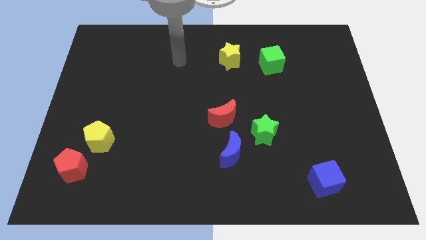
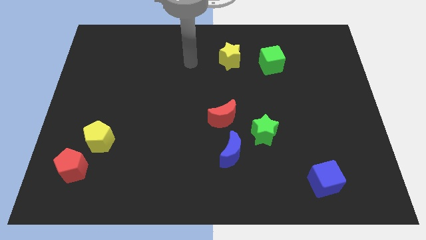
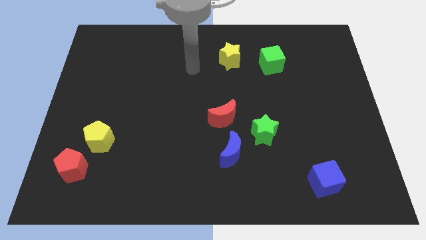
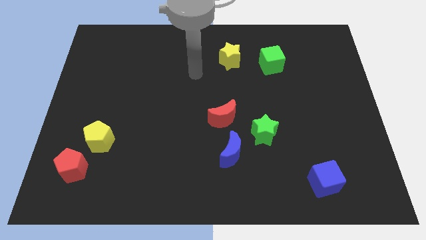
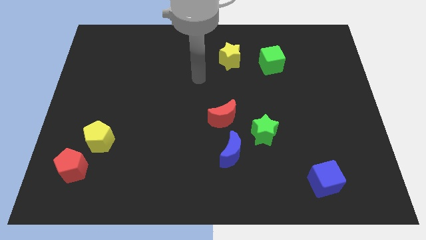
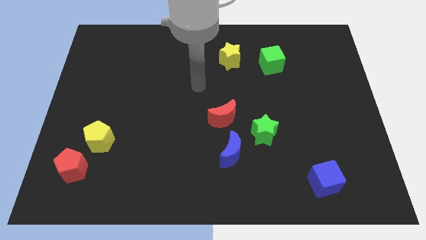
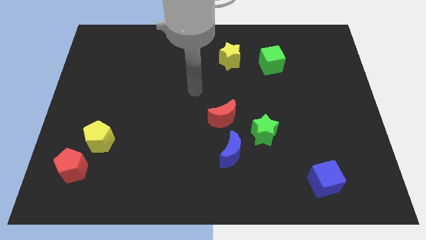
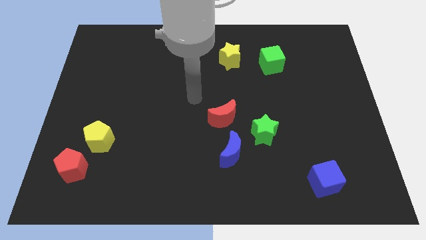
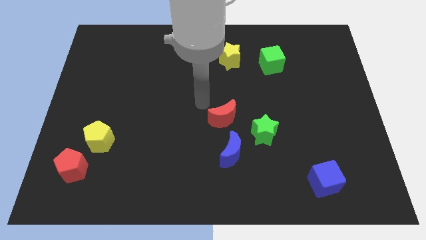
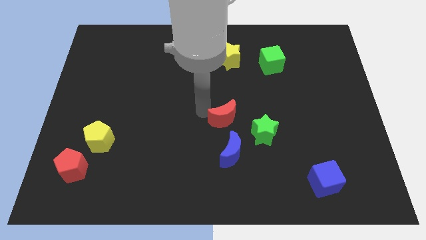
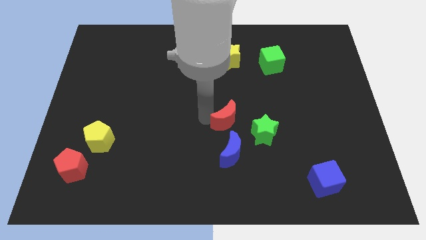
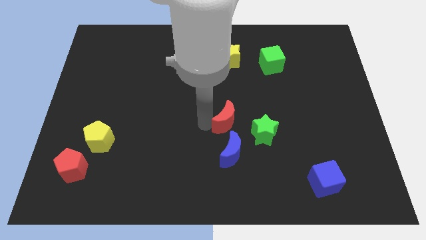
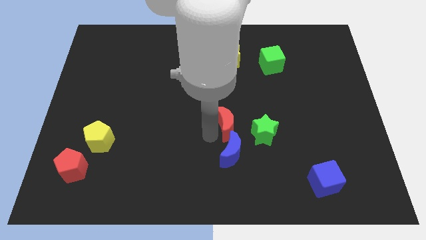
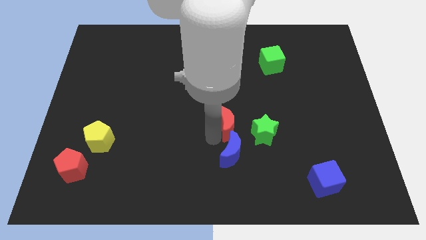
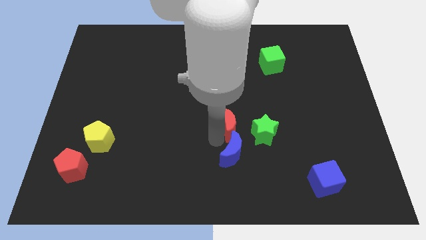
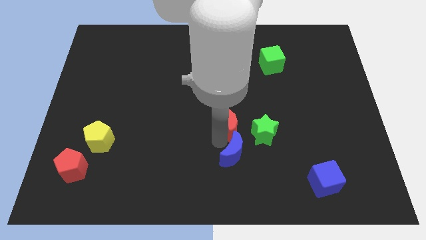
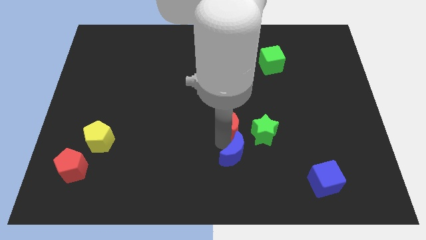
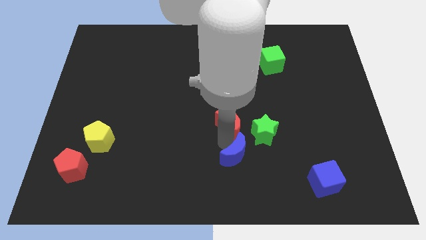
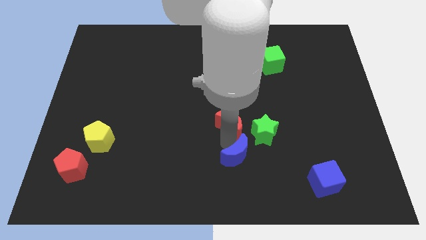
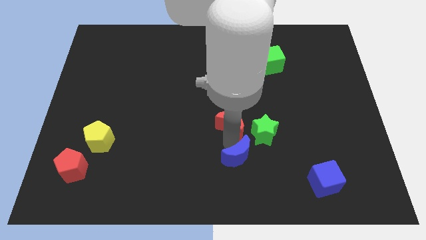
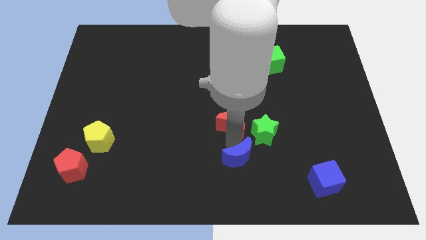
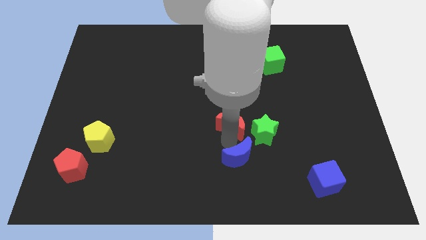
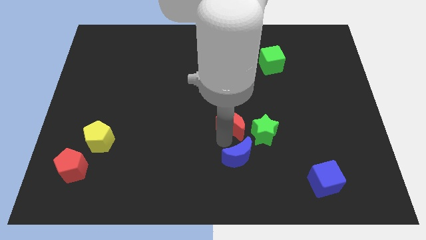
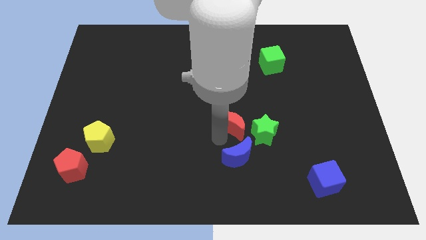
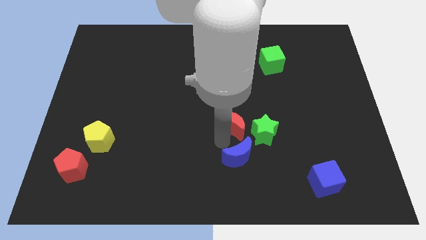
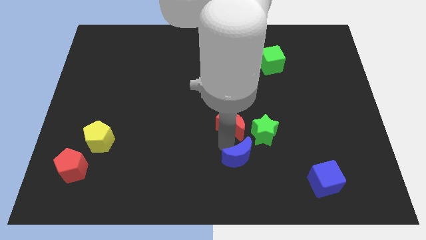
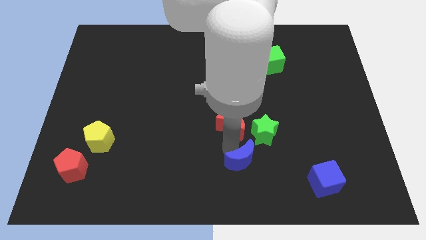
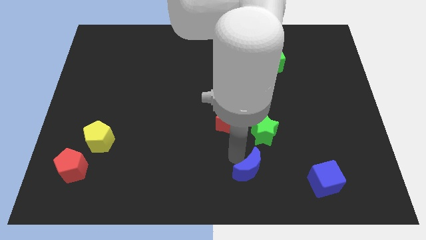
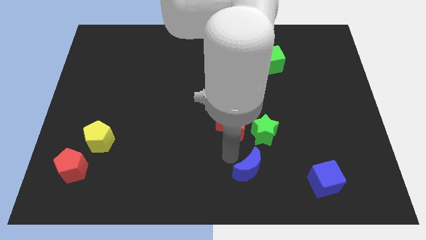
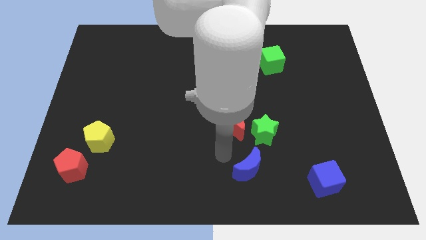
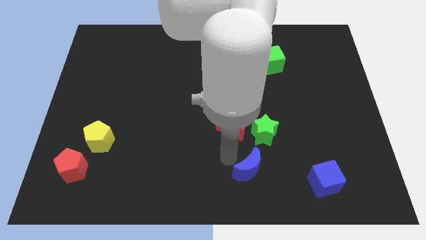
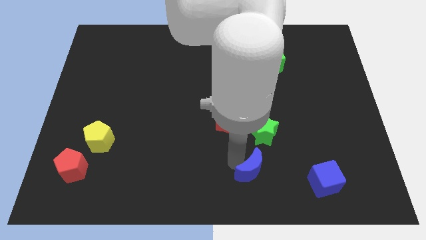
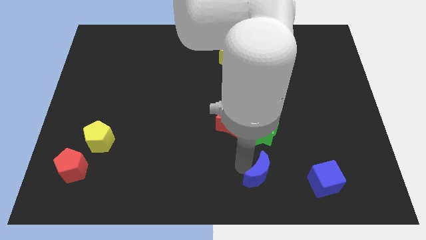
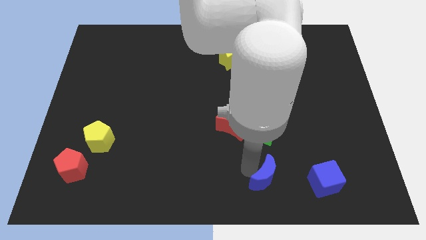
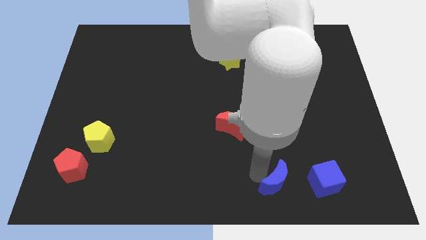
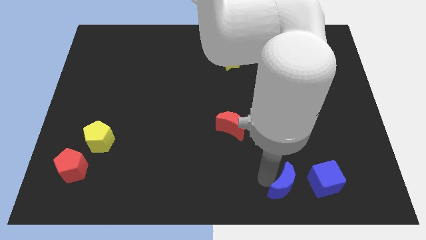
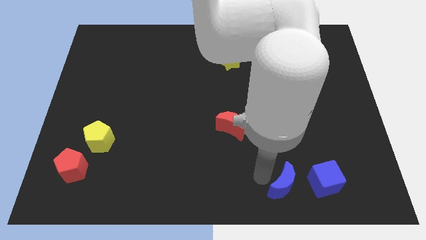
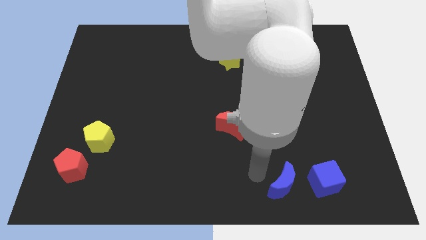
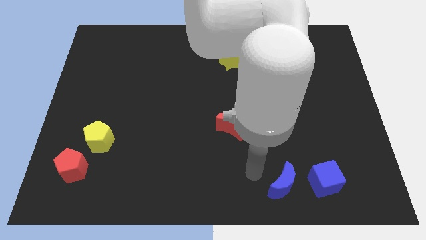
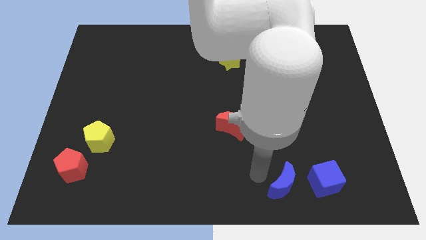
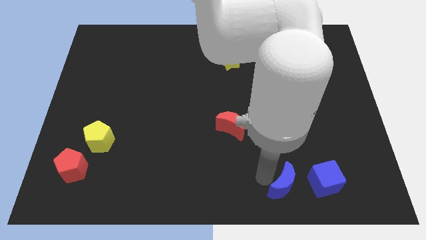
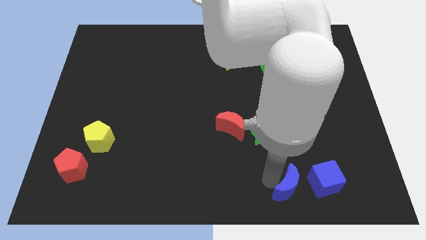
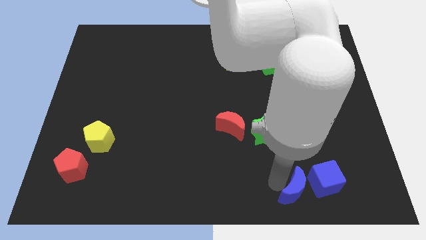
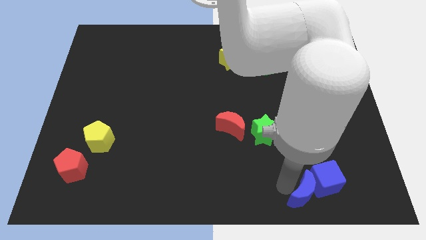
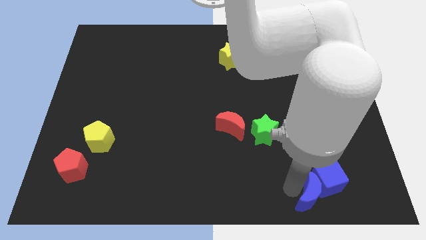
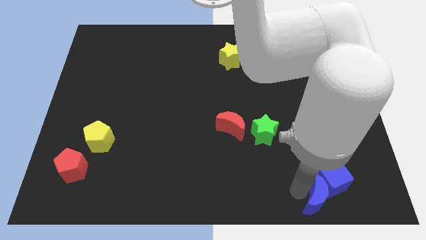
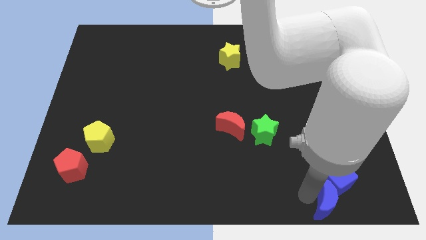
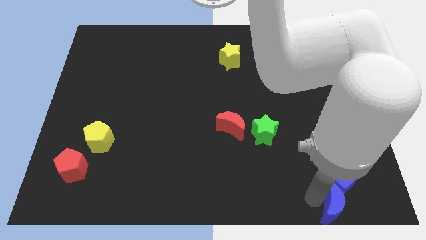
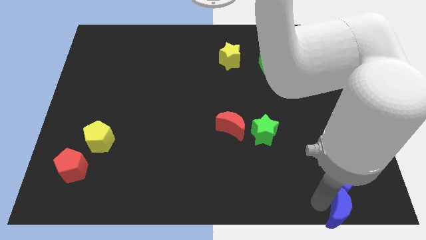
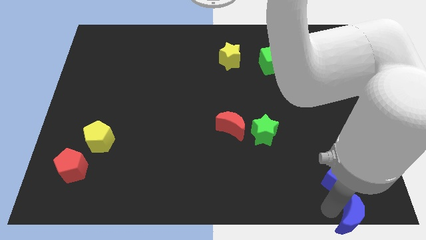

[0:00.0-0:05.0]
push the blue moon to the lower right corner

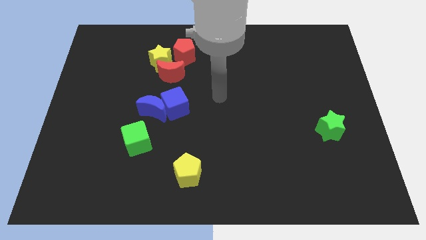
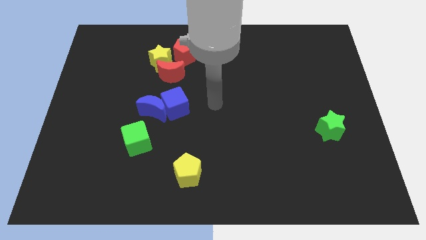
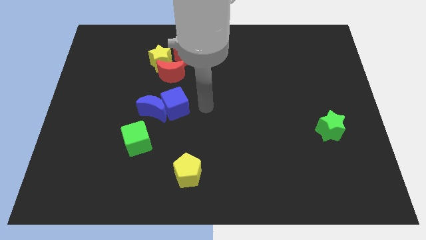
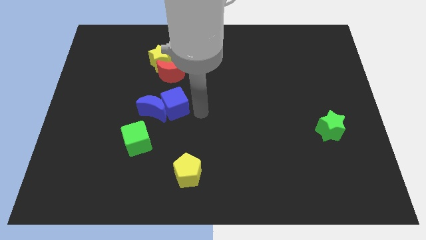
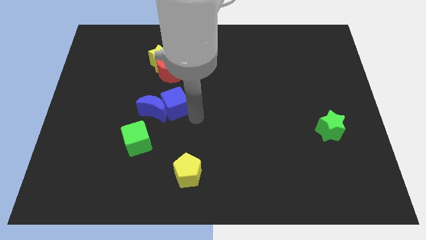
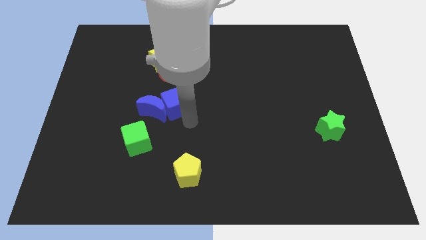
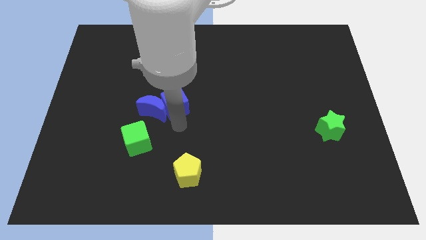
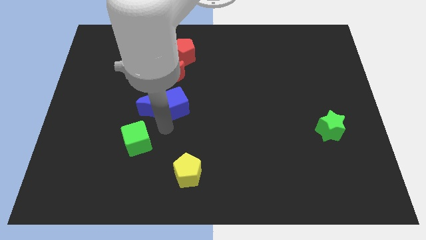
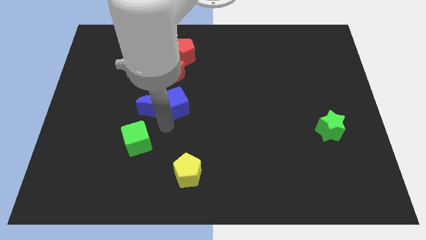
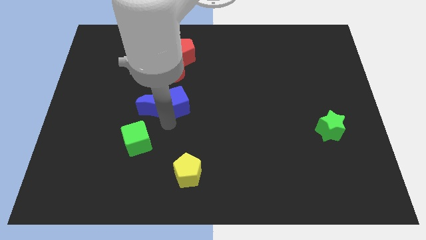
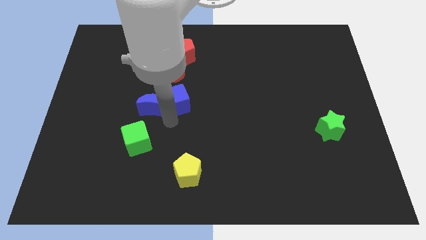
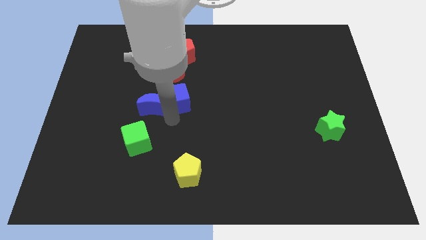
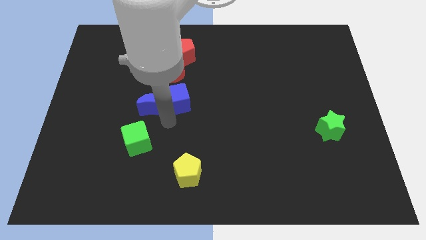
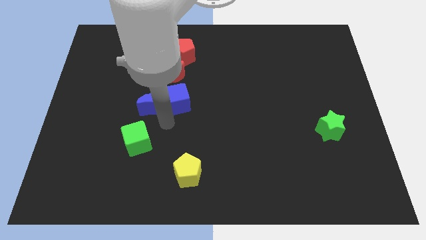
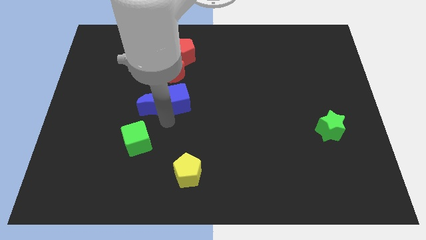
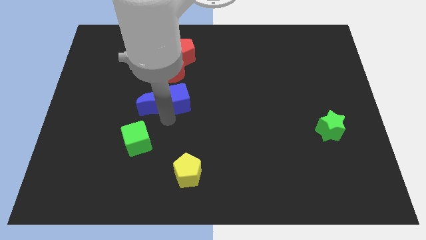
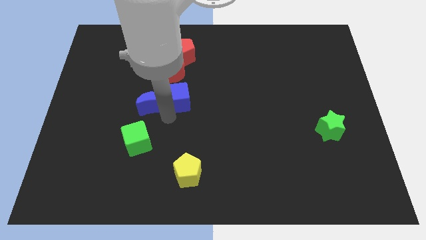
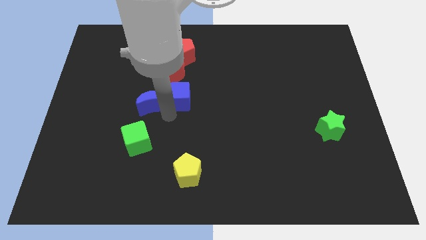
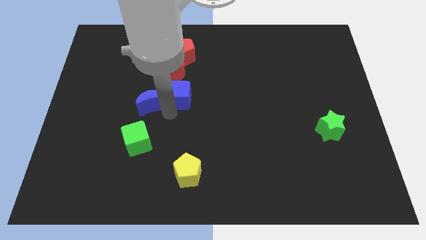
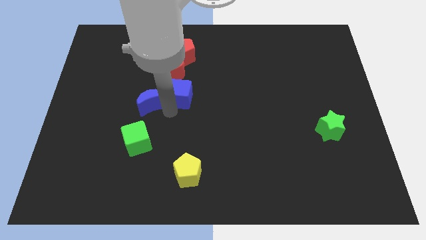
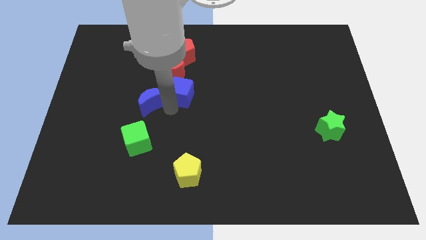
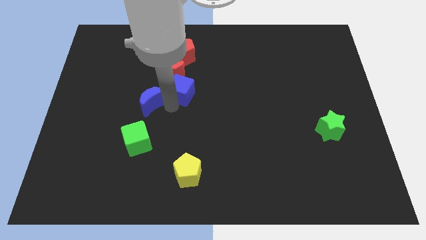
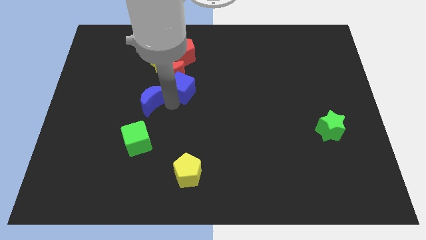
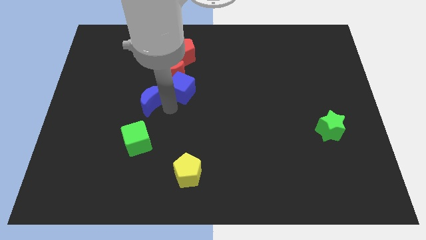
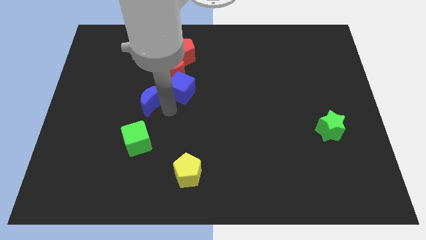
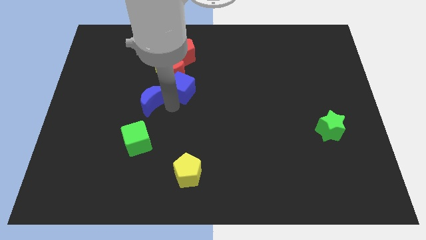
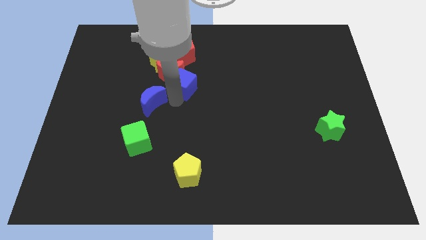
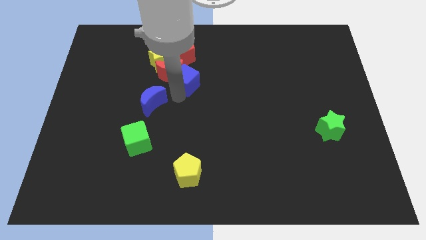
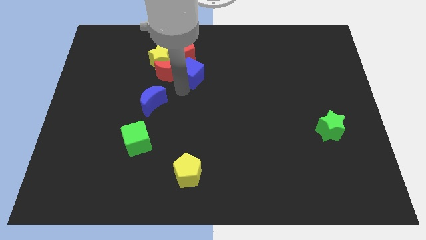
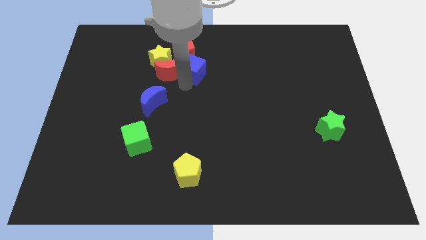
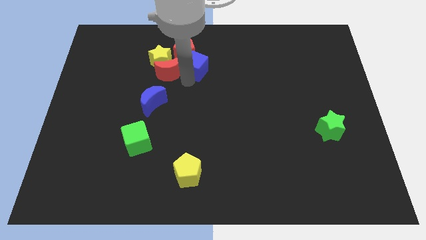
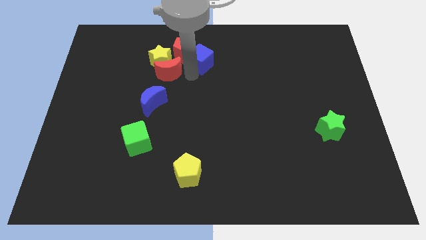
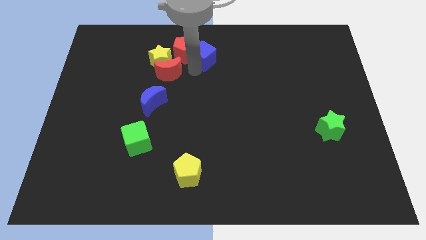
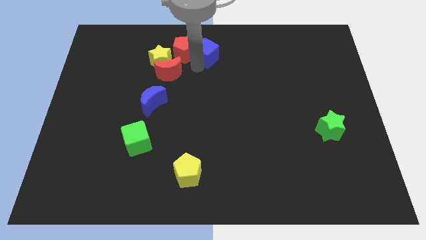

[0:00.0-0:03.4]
push the blue cube to the top side
